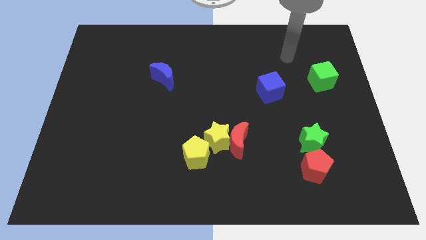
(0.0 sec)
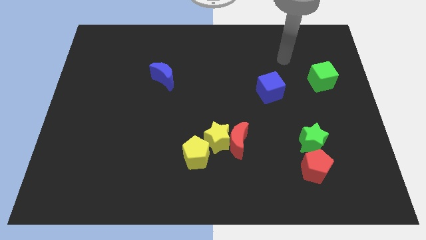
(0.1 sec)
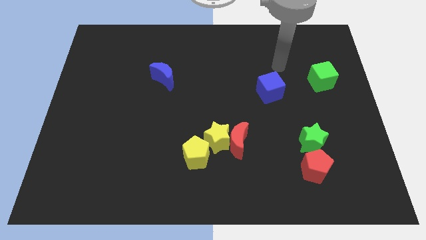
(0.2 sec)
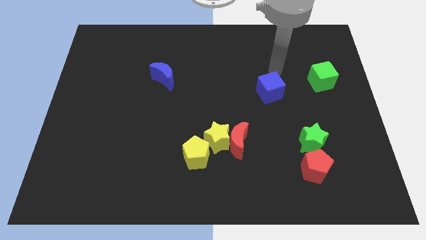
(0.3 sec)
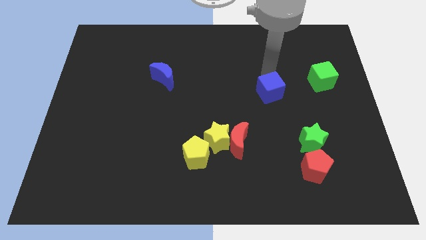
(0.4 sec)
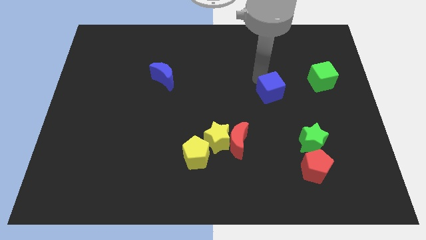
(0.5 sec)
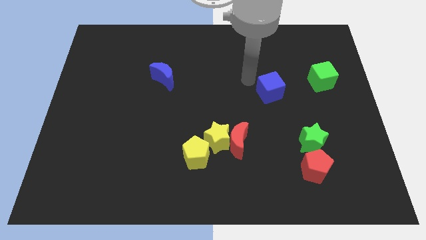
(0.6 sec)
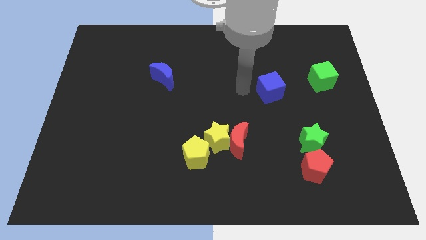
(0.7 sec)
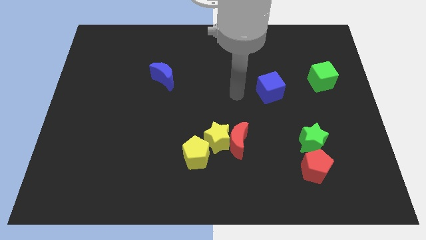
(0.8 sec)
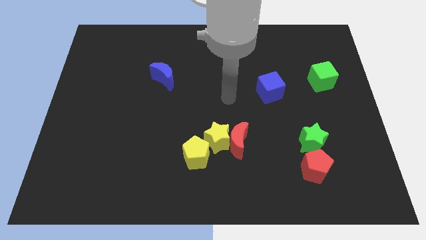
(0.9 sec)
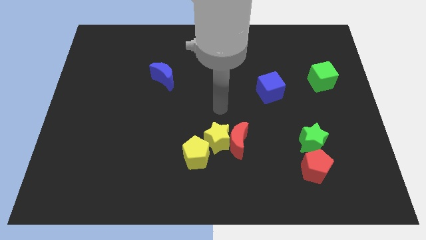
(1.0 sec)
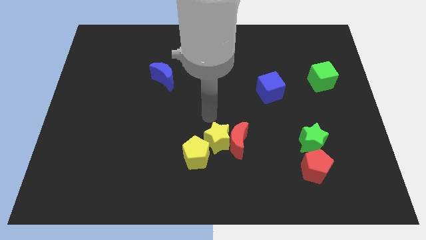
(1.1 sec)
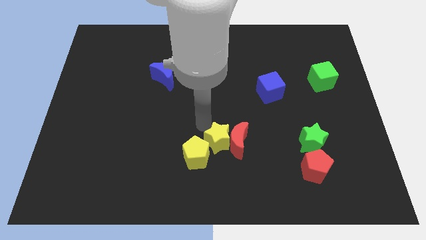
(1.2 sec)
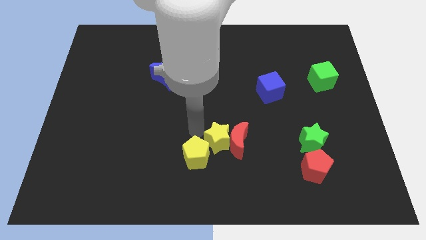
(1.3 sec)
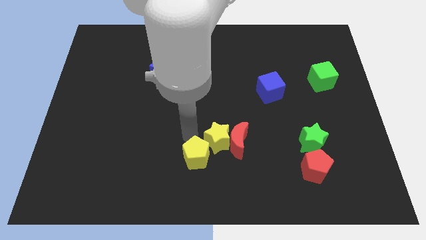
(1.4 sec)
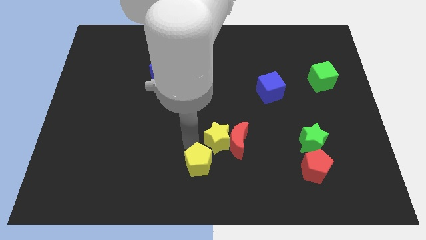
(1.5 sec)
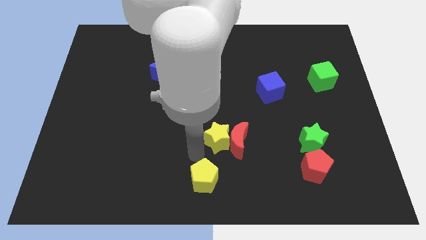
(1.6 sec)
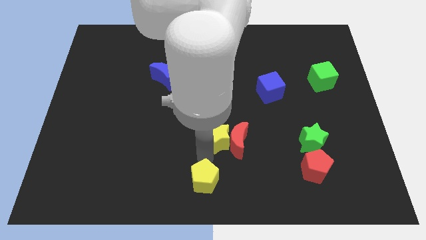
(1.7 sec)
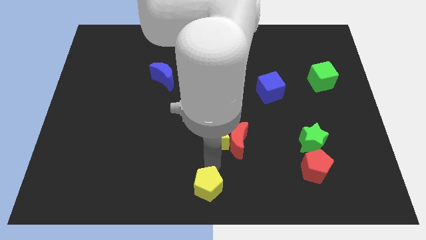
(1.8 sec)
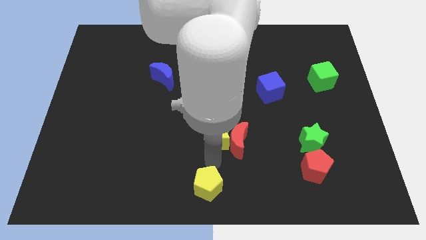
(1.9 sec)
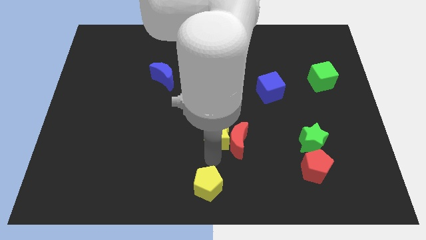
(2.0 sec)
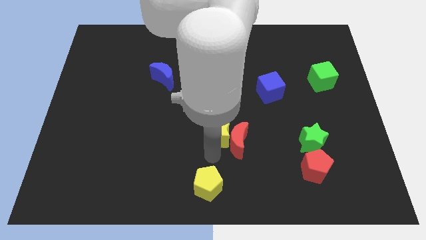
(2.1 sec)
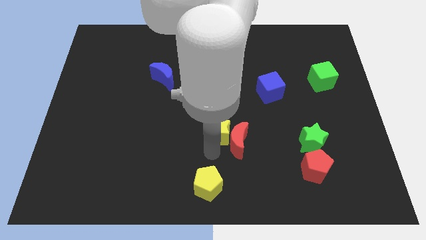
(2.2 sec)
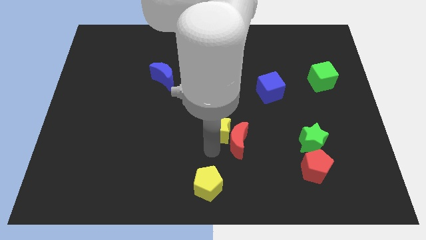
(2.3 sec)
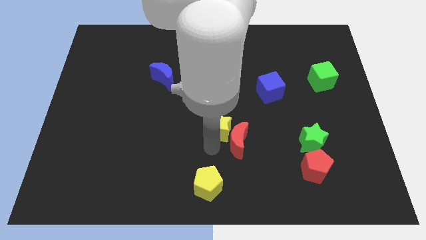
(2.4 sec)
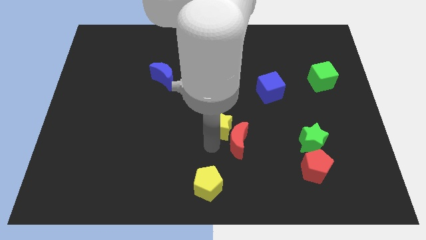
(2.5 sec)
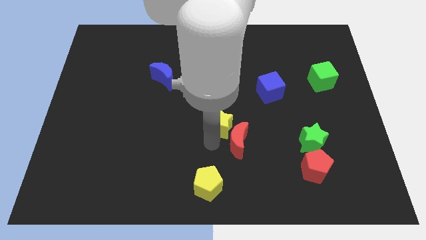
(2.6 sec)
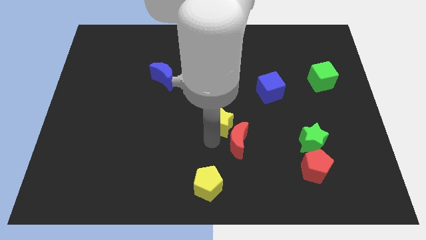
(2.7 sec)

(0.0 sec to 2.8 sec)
pull the yellow star apart from the red moon and yellow pentagon

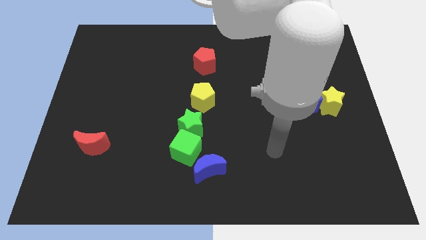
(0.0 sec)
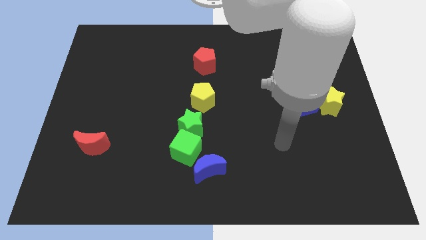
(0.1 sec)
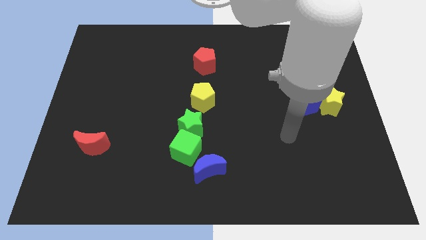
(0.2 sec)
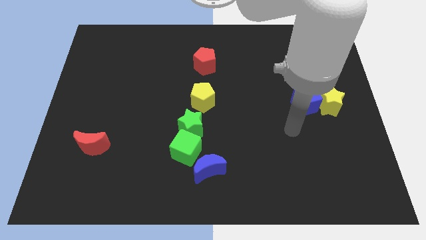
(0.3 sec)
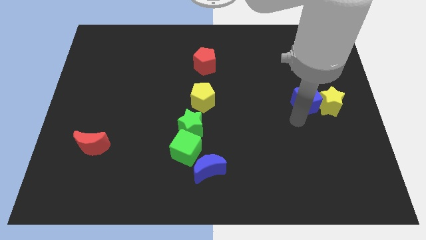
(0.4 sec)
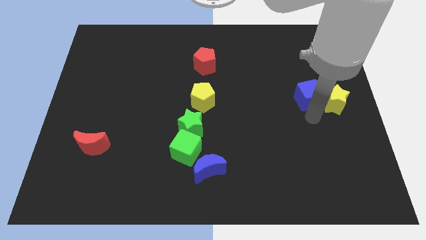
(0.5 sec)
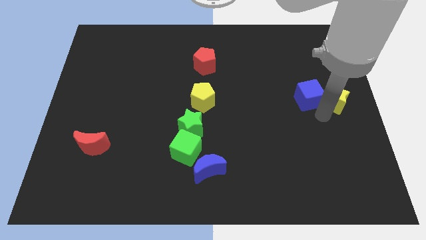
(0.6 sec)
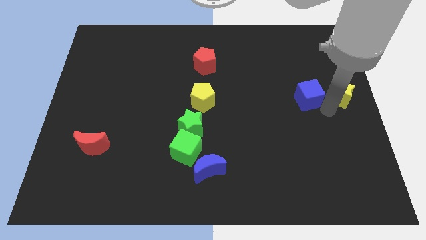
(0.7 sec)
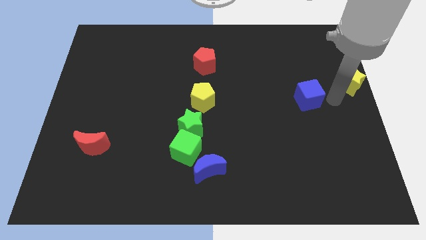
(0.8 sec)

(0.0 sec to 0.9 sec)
pull the blue cube apart from the yellow star

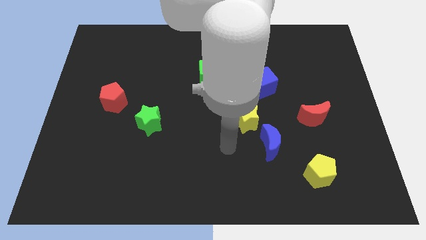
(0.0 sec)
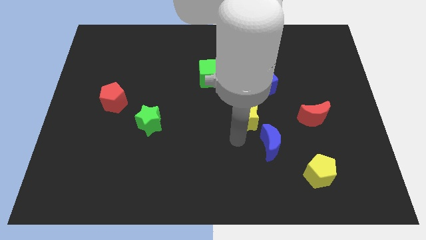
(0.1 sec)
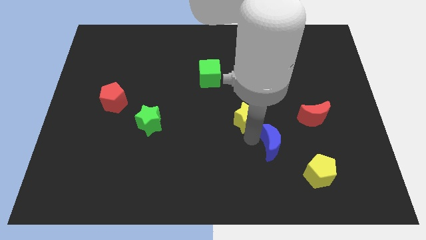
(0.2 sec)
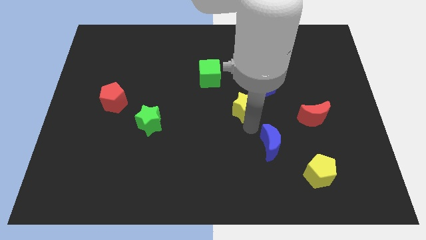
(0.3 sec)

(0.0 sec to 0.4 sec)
separate the blue moon from the yellow star

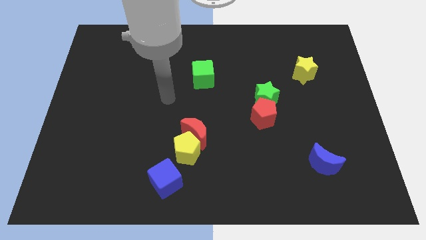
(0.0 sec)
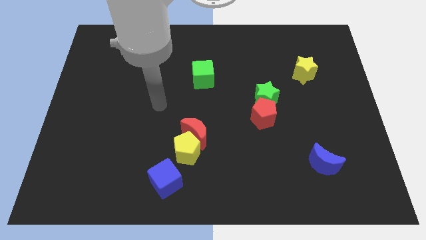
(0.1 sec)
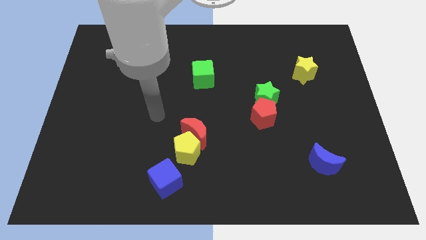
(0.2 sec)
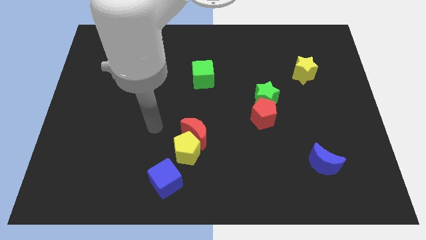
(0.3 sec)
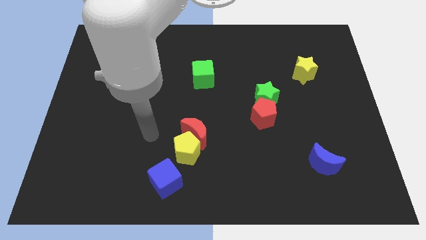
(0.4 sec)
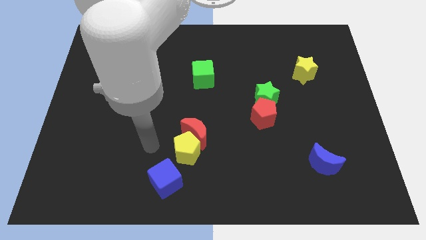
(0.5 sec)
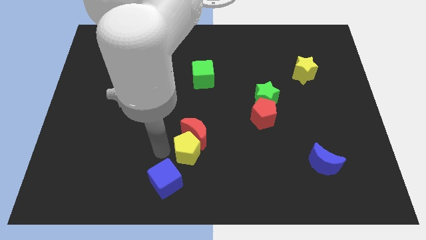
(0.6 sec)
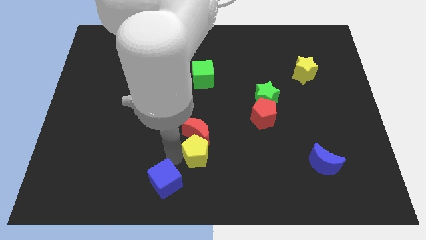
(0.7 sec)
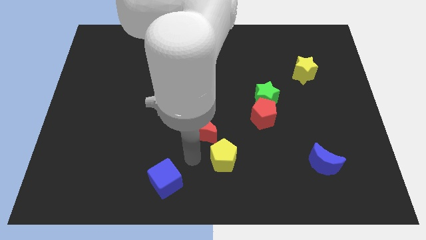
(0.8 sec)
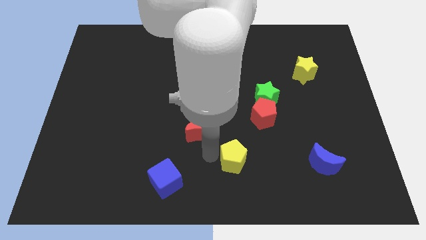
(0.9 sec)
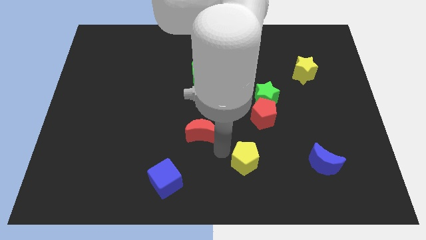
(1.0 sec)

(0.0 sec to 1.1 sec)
move the red moon away from the yellow pentagon

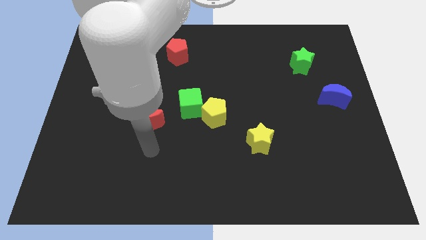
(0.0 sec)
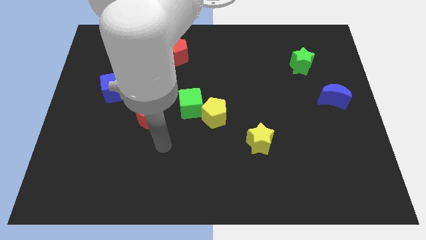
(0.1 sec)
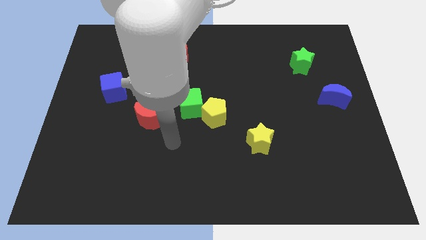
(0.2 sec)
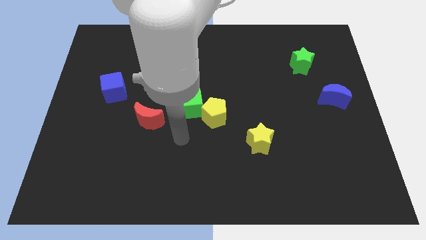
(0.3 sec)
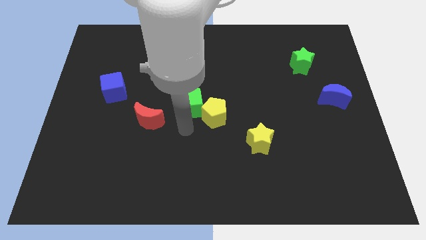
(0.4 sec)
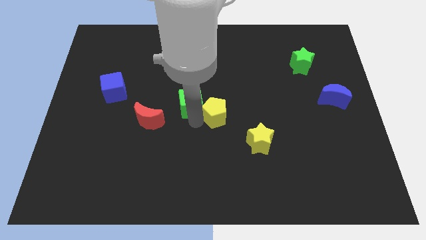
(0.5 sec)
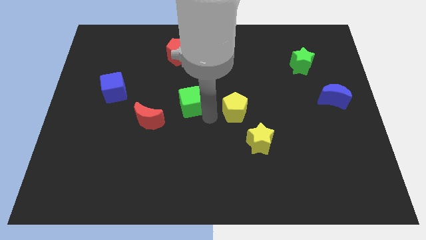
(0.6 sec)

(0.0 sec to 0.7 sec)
separate the green cube from the yellow pentagon

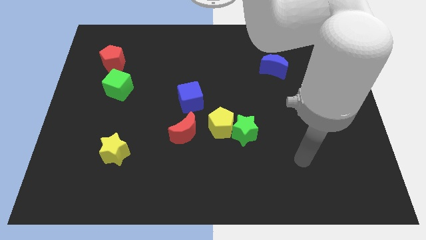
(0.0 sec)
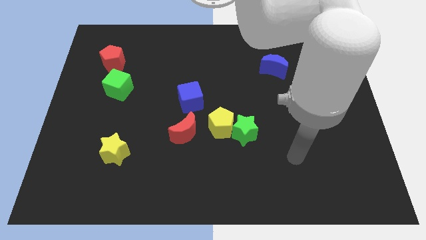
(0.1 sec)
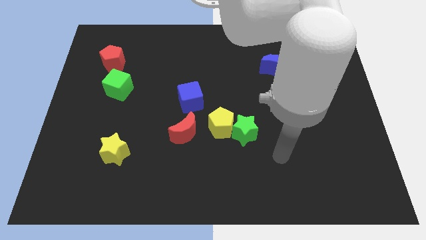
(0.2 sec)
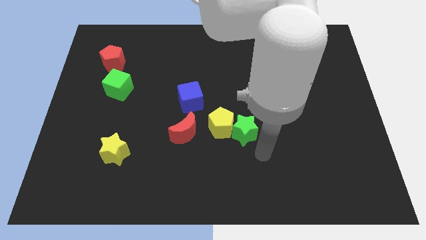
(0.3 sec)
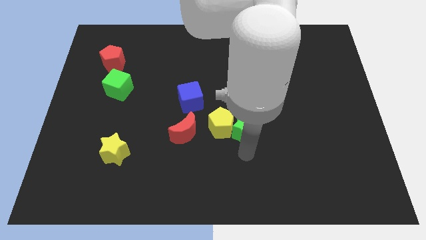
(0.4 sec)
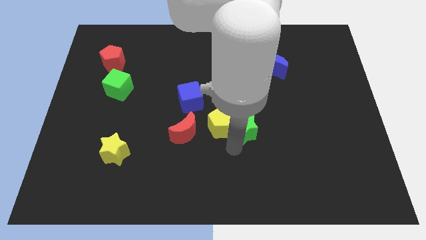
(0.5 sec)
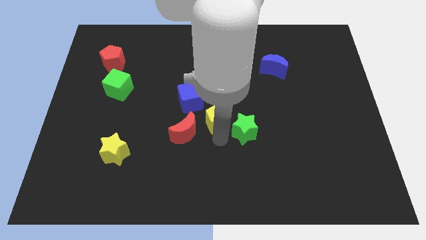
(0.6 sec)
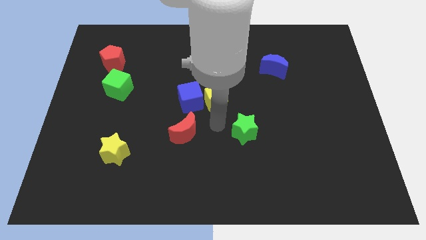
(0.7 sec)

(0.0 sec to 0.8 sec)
pull the green star apart from the yellow pentagon

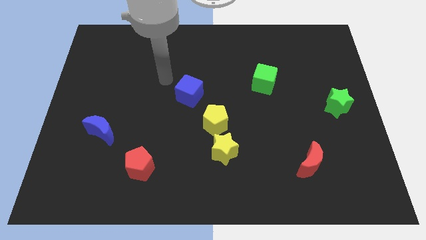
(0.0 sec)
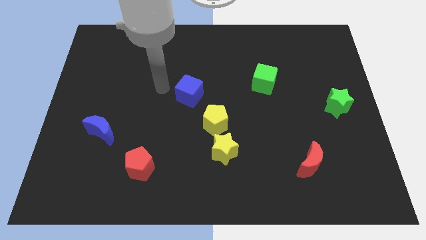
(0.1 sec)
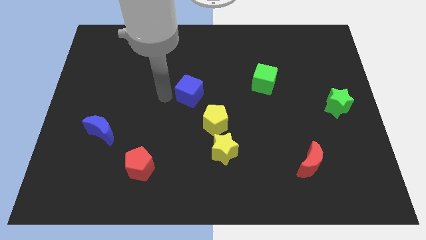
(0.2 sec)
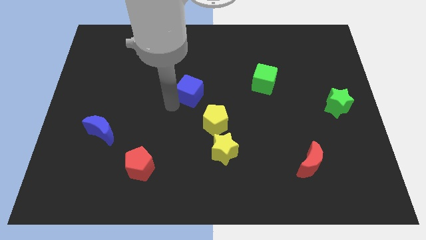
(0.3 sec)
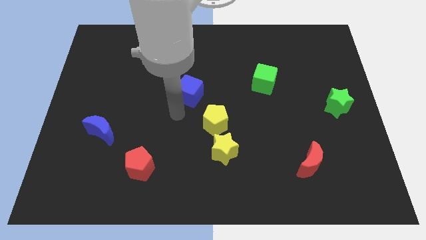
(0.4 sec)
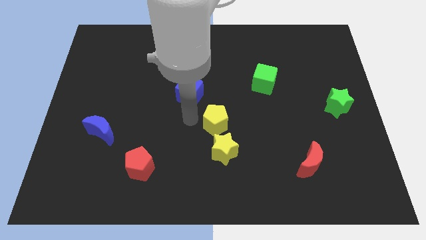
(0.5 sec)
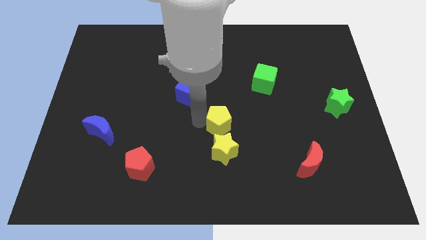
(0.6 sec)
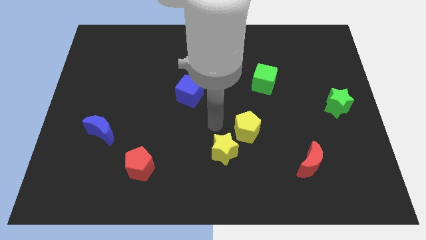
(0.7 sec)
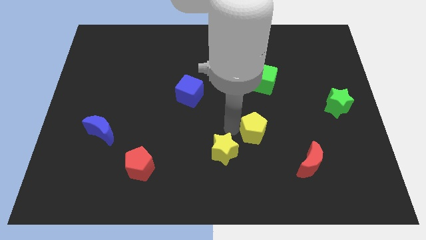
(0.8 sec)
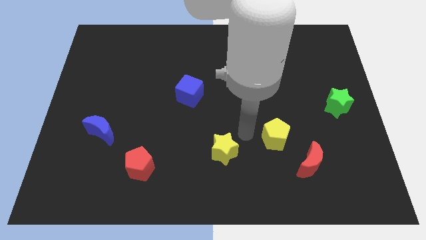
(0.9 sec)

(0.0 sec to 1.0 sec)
move the yellow star away from the yellow pentagon

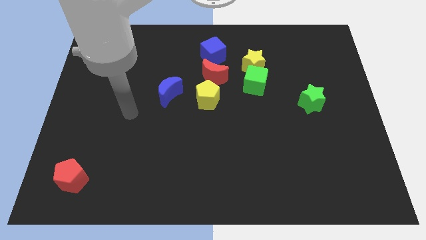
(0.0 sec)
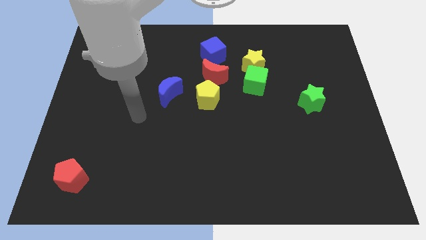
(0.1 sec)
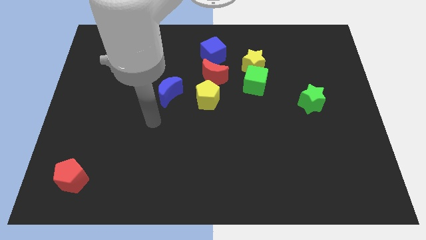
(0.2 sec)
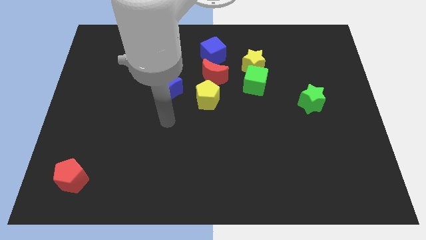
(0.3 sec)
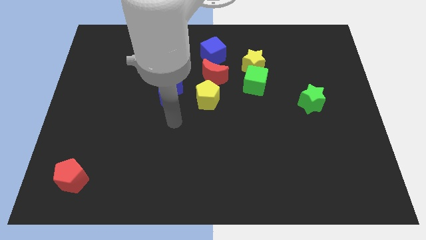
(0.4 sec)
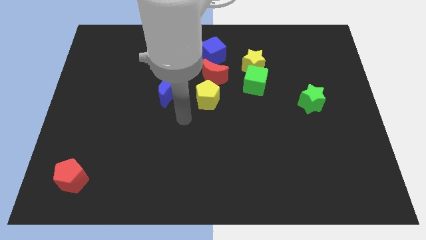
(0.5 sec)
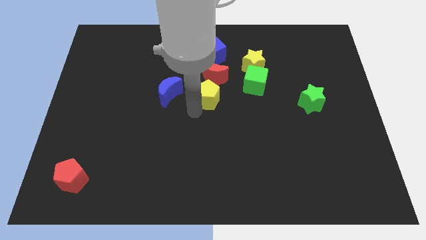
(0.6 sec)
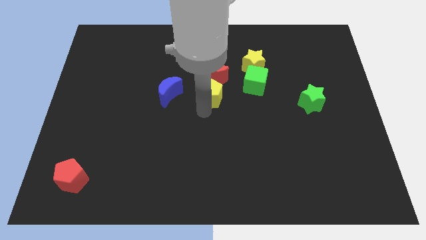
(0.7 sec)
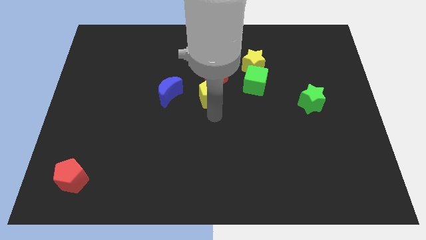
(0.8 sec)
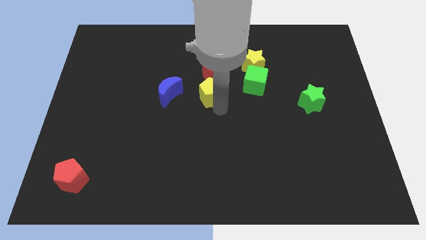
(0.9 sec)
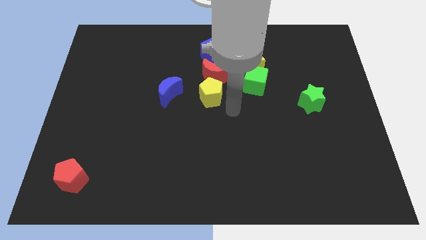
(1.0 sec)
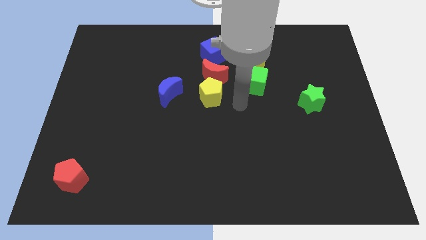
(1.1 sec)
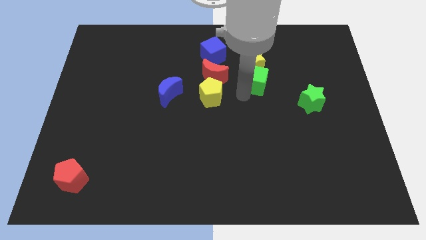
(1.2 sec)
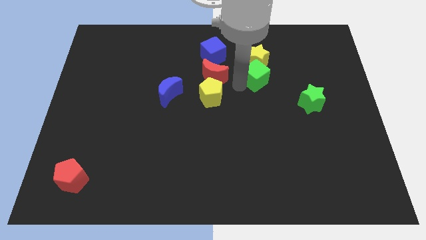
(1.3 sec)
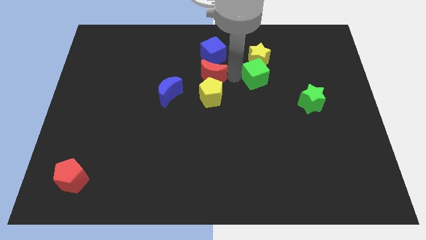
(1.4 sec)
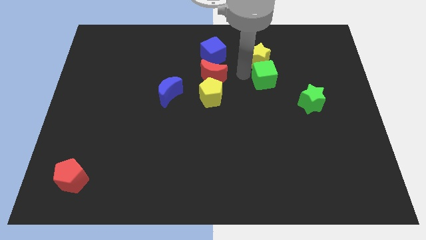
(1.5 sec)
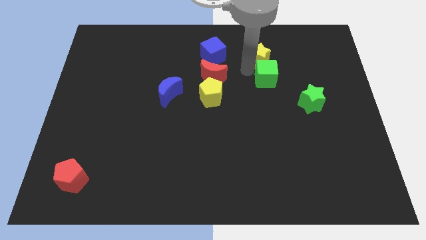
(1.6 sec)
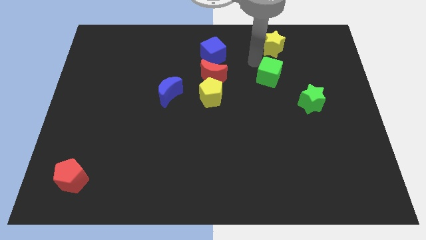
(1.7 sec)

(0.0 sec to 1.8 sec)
move the green cube away from the yellow star
